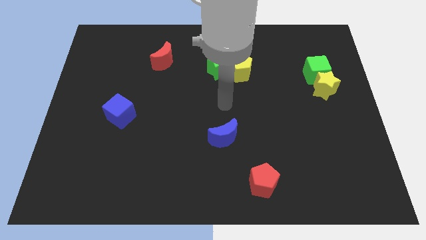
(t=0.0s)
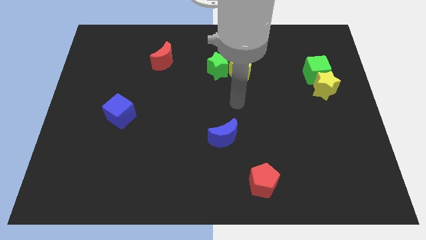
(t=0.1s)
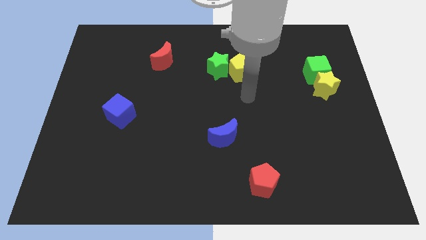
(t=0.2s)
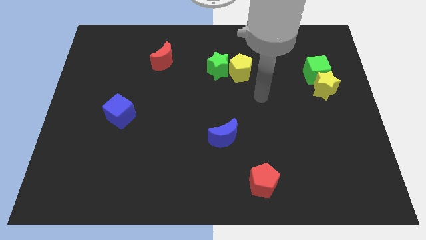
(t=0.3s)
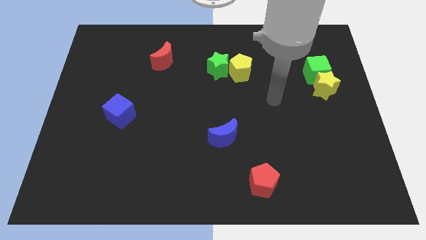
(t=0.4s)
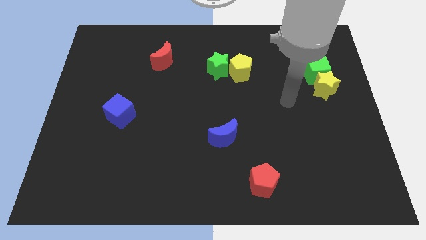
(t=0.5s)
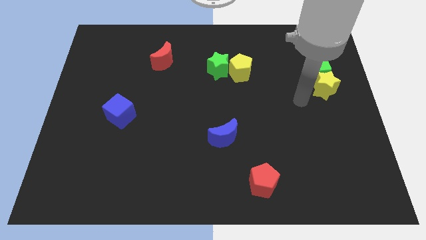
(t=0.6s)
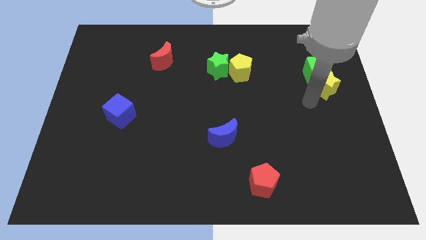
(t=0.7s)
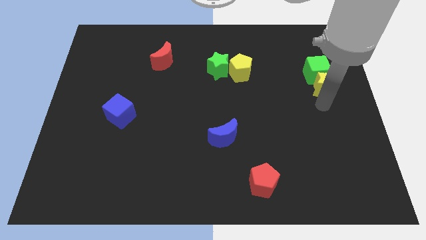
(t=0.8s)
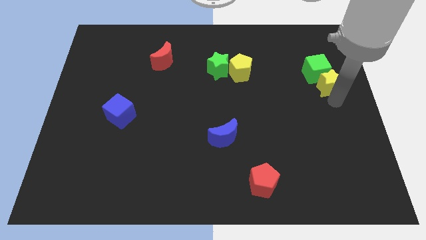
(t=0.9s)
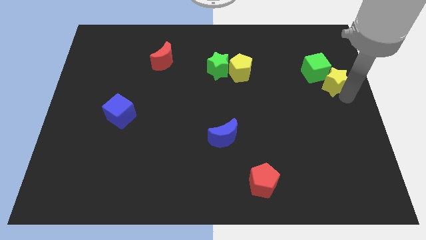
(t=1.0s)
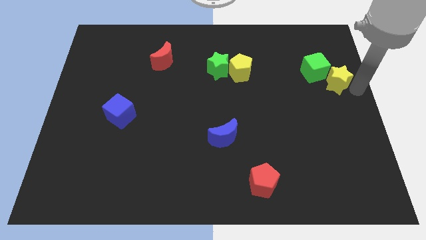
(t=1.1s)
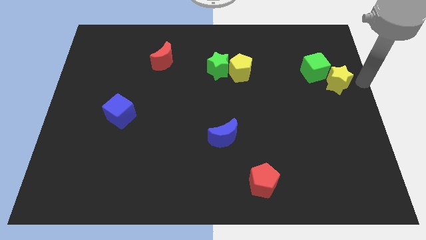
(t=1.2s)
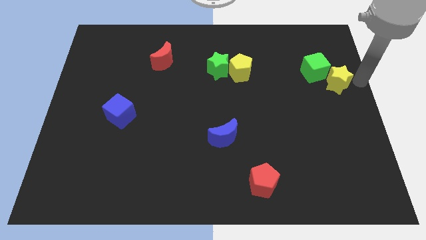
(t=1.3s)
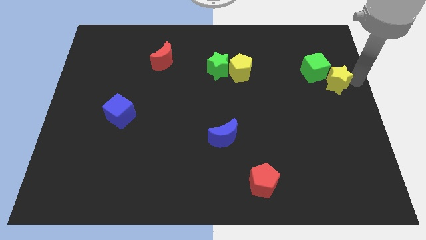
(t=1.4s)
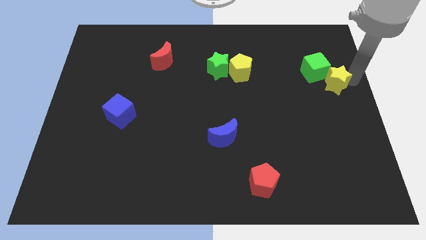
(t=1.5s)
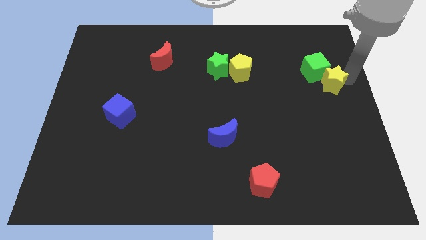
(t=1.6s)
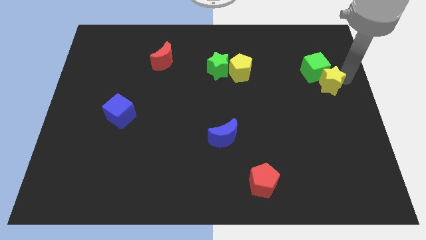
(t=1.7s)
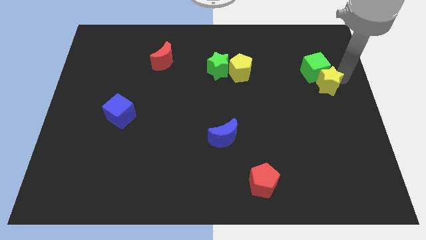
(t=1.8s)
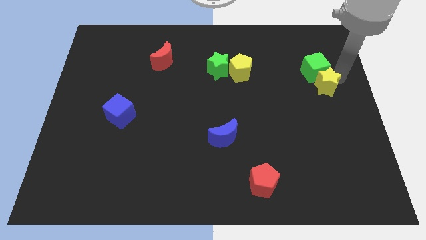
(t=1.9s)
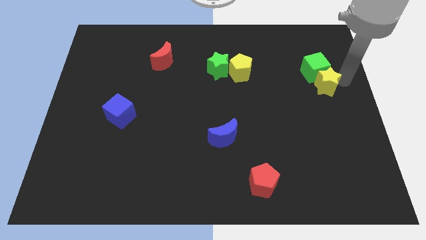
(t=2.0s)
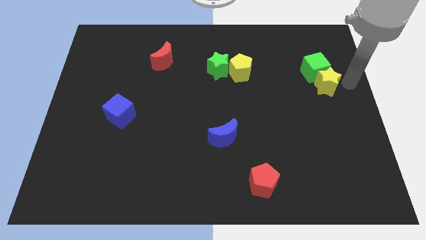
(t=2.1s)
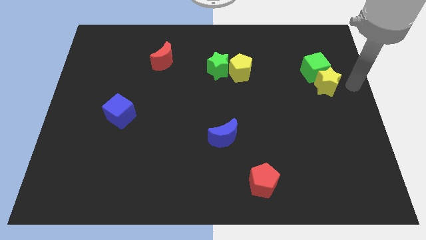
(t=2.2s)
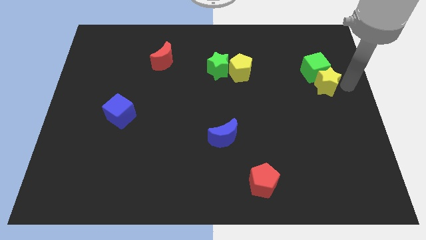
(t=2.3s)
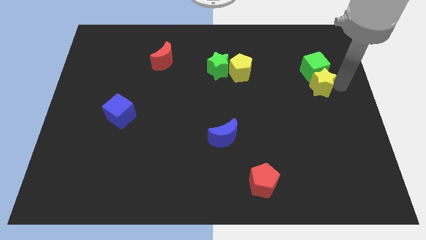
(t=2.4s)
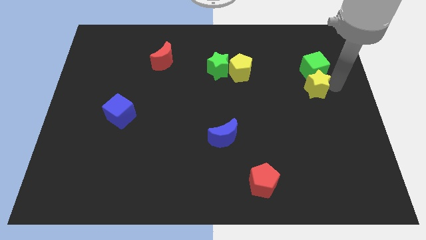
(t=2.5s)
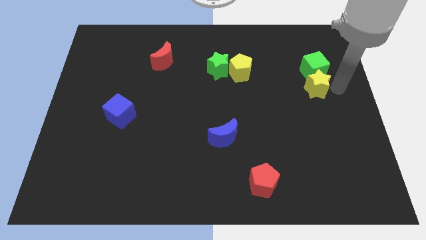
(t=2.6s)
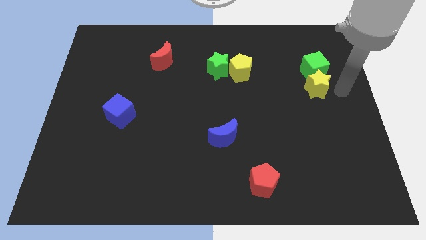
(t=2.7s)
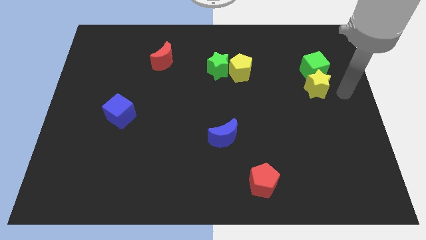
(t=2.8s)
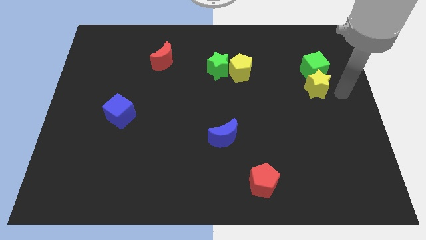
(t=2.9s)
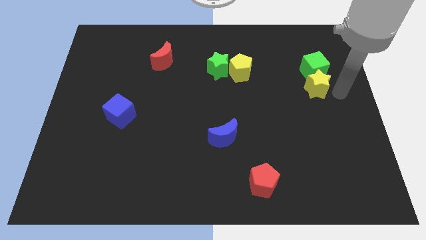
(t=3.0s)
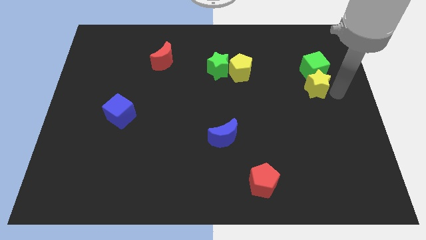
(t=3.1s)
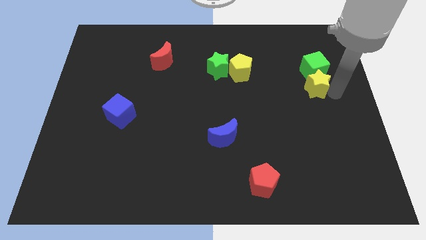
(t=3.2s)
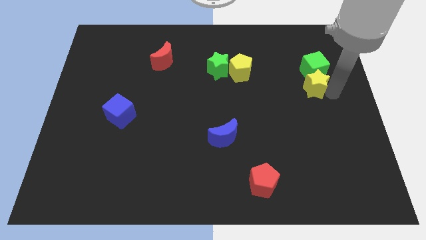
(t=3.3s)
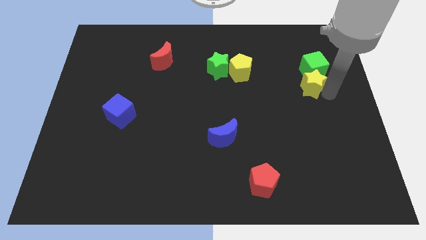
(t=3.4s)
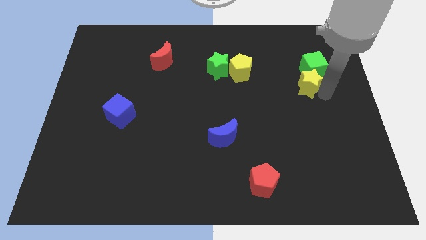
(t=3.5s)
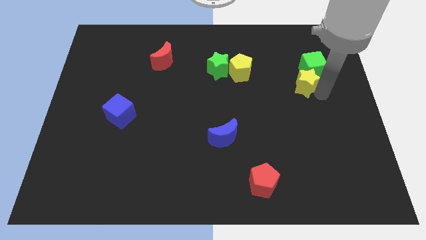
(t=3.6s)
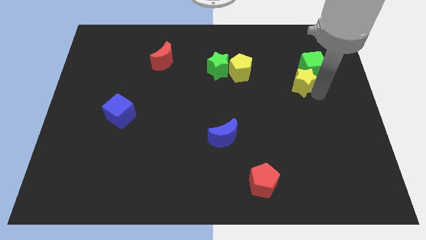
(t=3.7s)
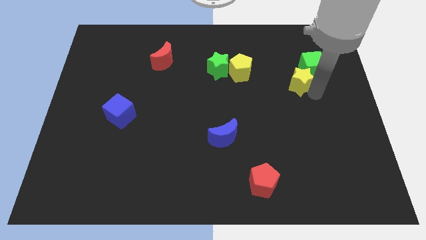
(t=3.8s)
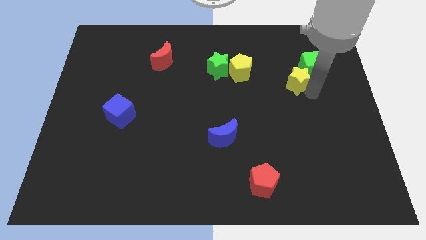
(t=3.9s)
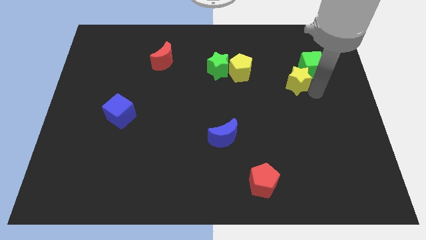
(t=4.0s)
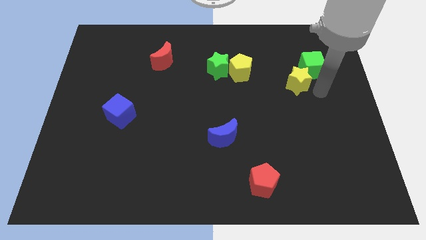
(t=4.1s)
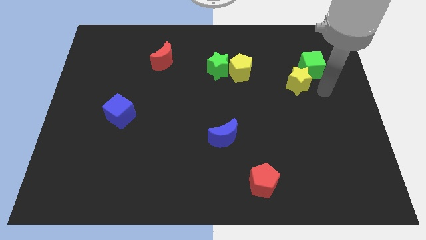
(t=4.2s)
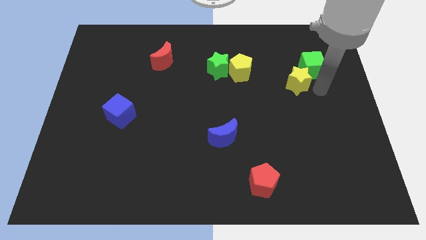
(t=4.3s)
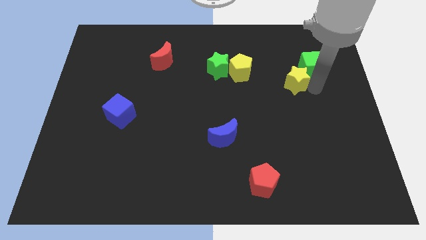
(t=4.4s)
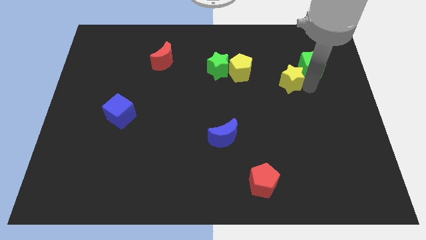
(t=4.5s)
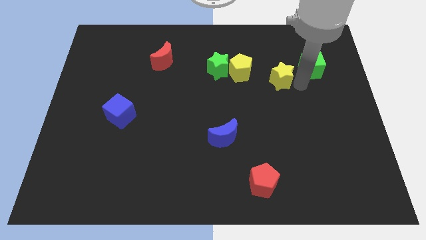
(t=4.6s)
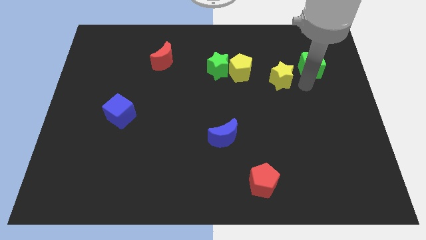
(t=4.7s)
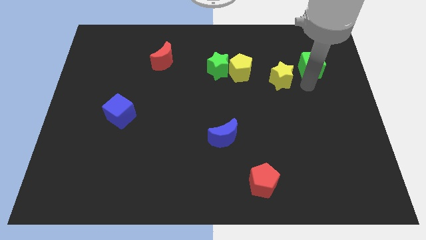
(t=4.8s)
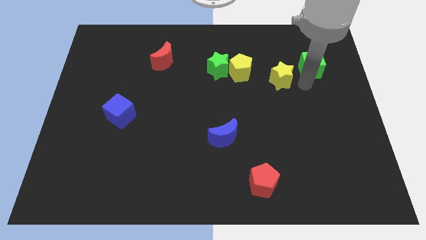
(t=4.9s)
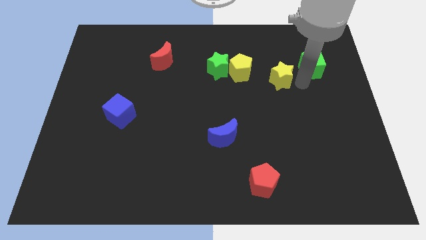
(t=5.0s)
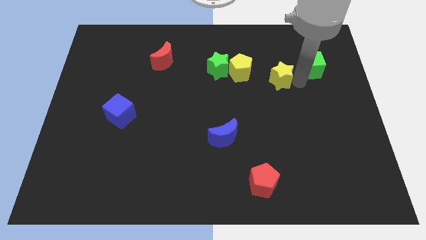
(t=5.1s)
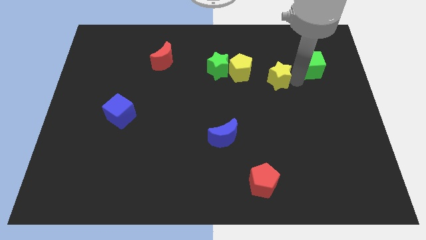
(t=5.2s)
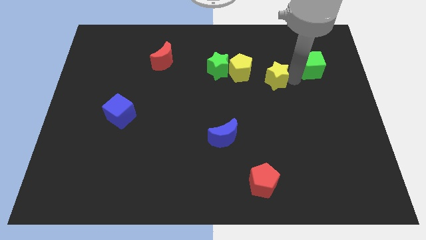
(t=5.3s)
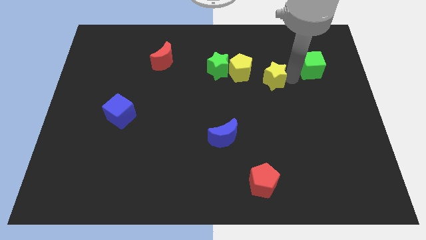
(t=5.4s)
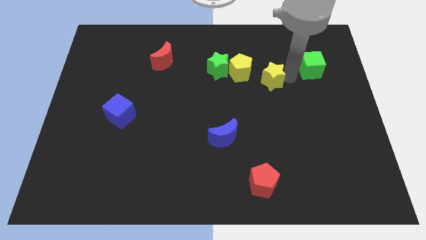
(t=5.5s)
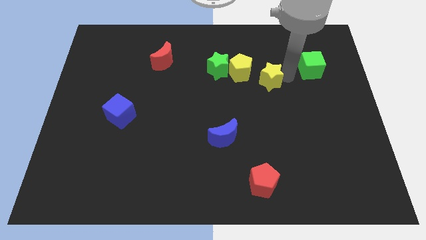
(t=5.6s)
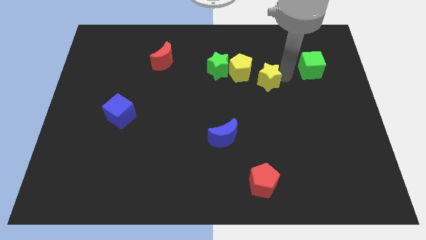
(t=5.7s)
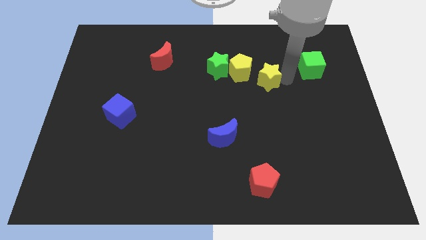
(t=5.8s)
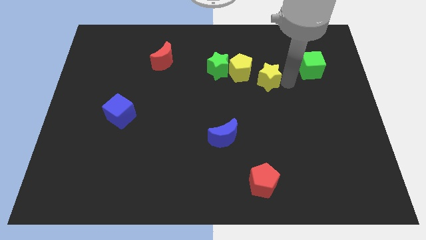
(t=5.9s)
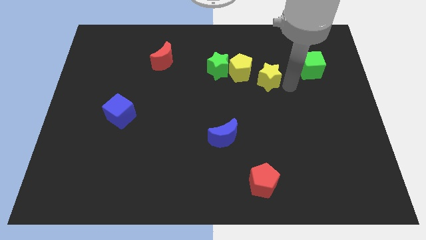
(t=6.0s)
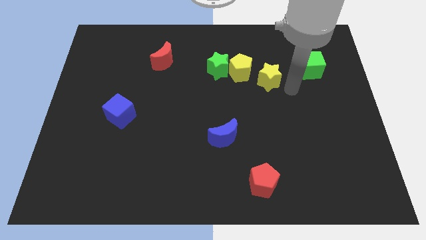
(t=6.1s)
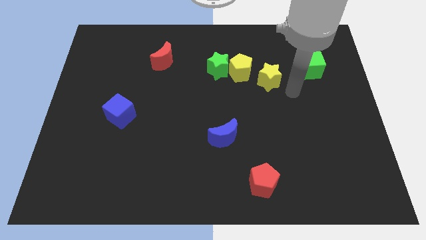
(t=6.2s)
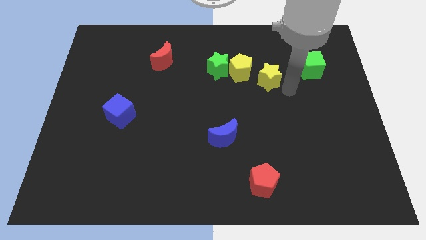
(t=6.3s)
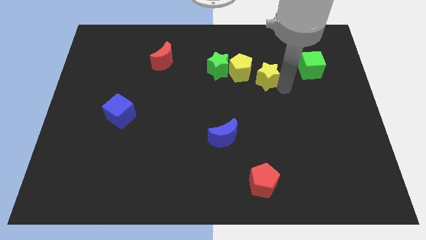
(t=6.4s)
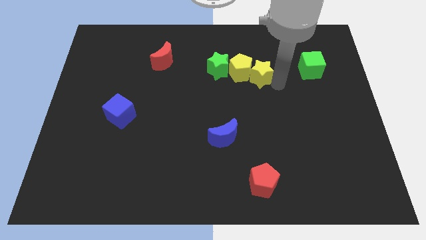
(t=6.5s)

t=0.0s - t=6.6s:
put the yellow star to the yellow pentagon
